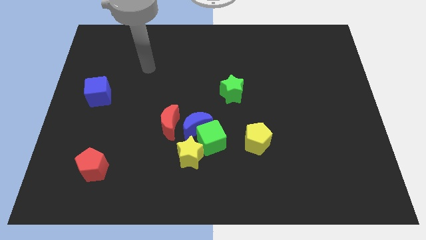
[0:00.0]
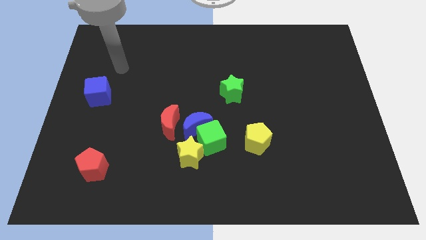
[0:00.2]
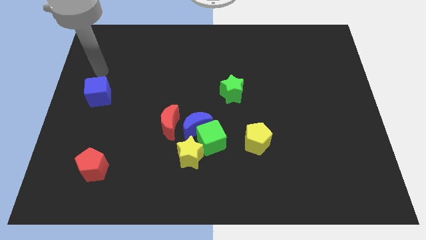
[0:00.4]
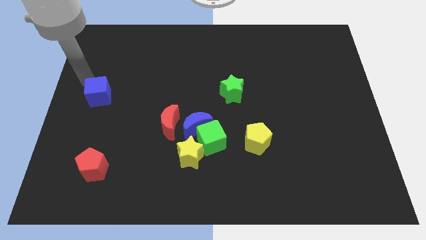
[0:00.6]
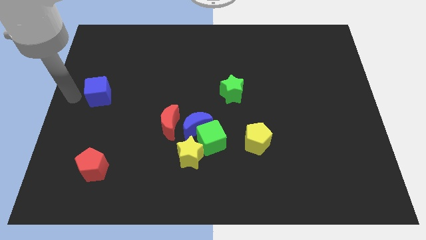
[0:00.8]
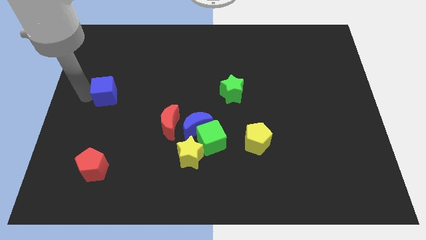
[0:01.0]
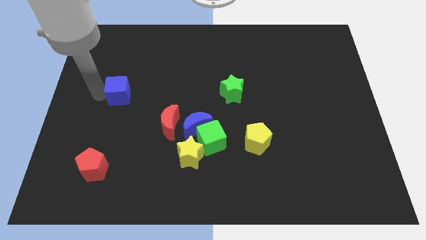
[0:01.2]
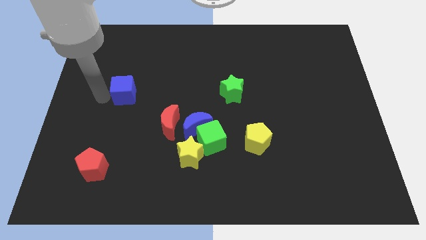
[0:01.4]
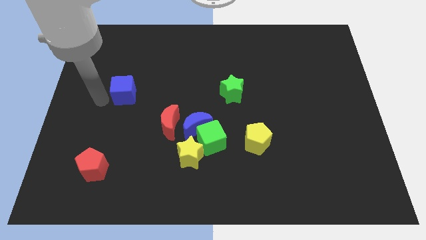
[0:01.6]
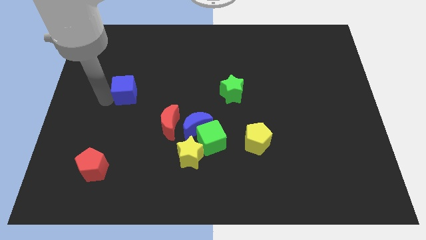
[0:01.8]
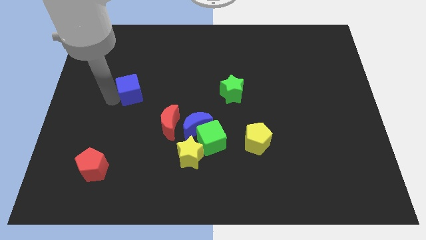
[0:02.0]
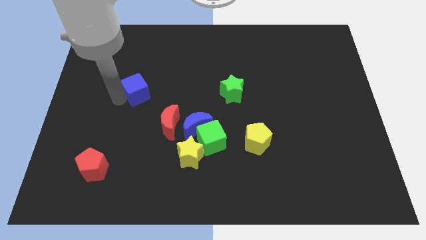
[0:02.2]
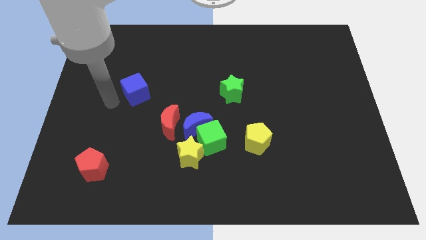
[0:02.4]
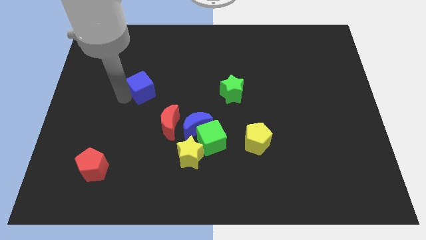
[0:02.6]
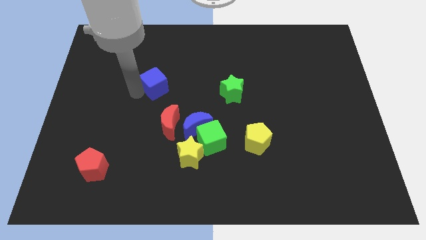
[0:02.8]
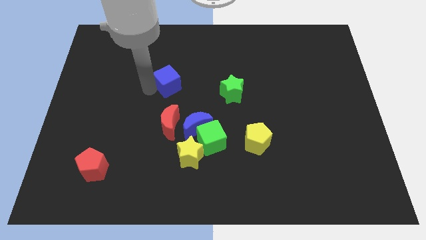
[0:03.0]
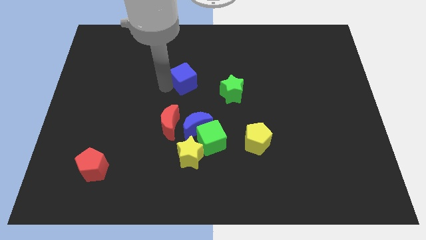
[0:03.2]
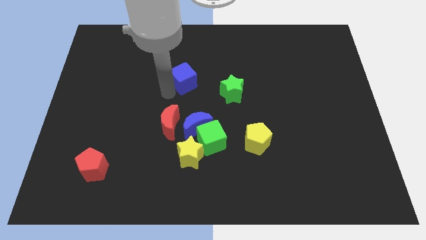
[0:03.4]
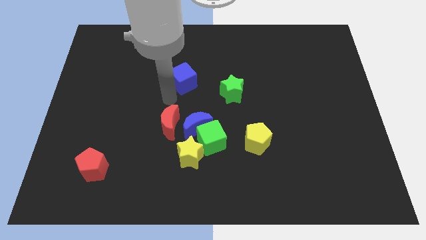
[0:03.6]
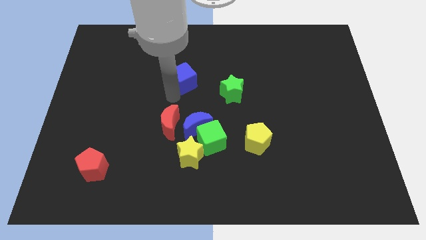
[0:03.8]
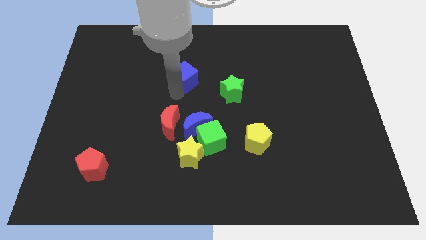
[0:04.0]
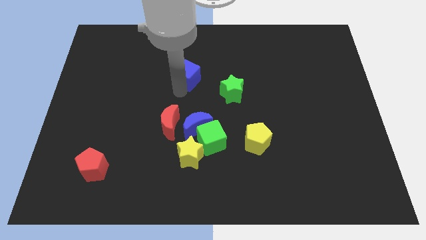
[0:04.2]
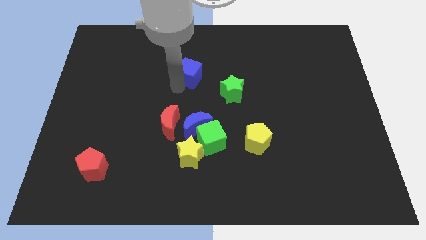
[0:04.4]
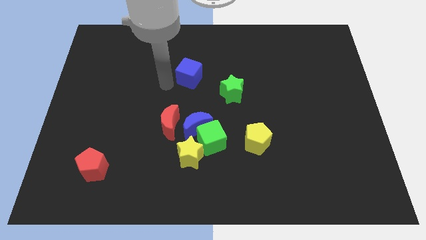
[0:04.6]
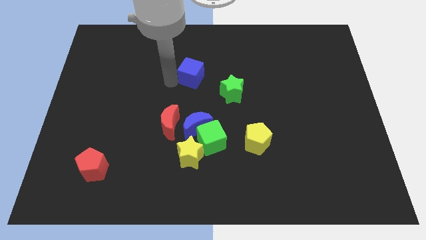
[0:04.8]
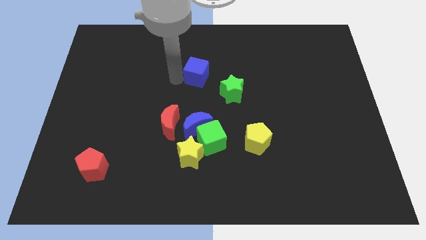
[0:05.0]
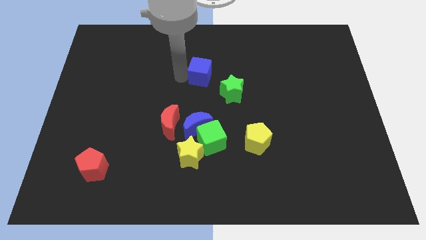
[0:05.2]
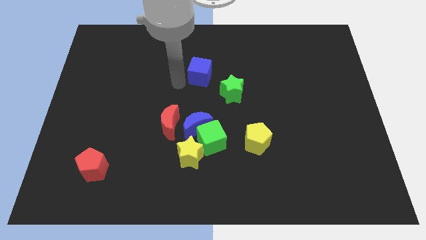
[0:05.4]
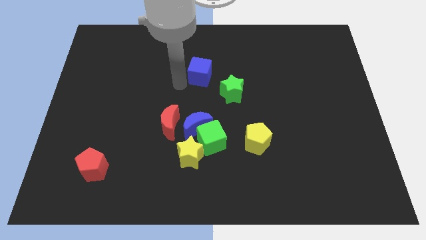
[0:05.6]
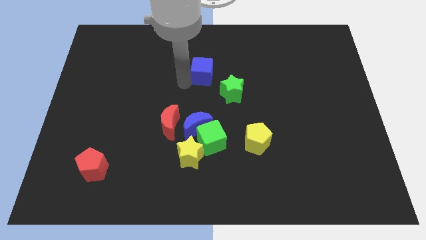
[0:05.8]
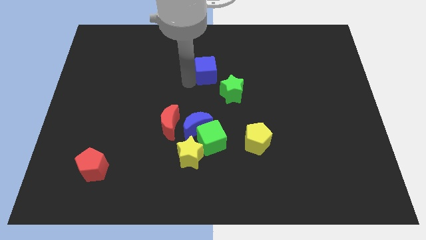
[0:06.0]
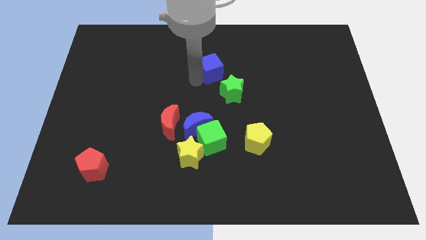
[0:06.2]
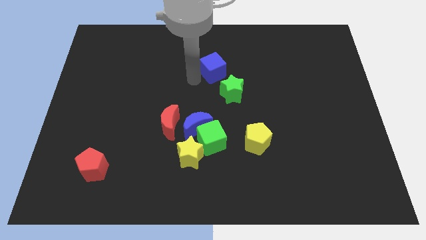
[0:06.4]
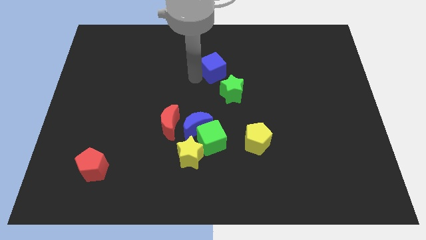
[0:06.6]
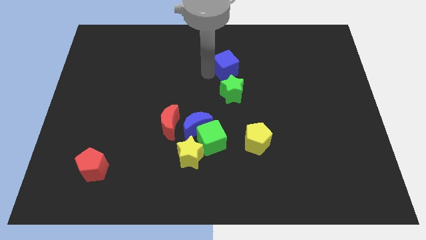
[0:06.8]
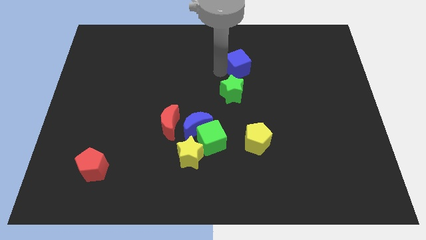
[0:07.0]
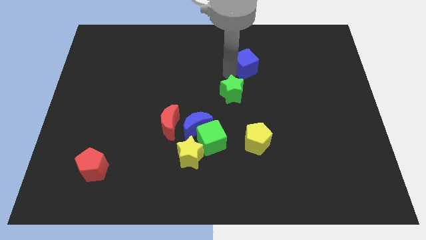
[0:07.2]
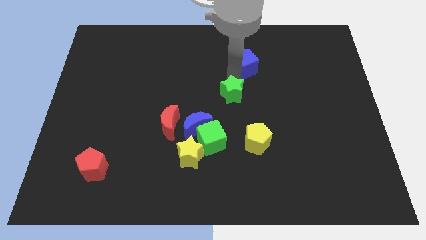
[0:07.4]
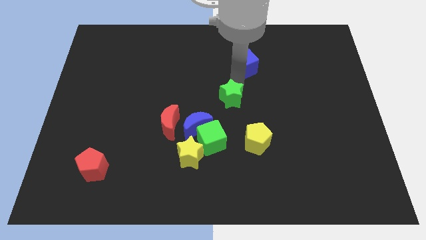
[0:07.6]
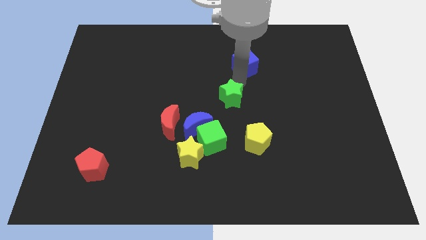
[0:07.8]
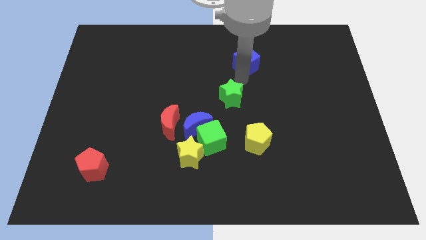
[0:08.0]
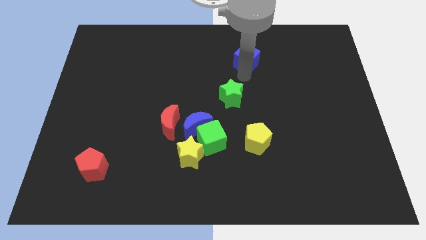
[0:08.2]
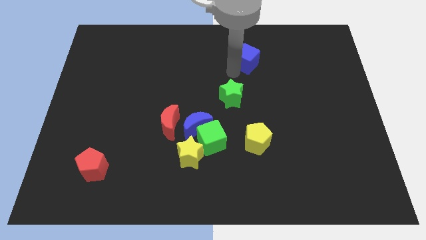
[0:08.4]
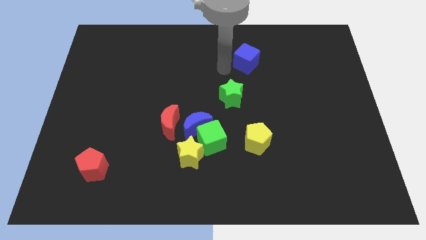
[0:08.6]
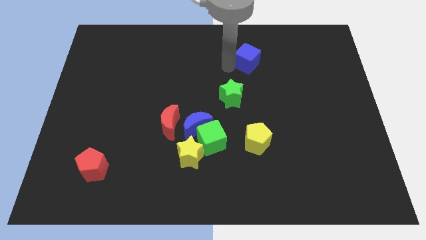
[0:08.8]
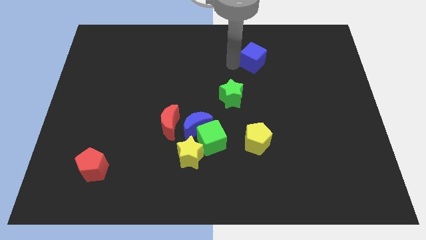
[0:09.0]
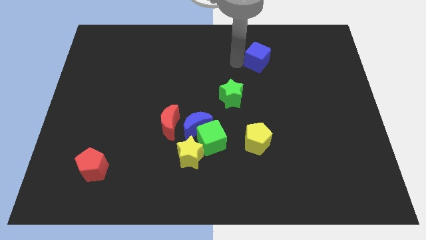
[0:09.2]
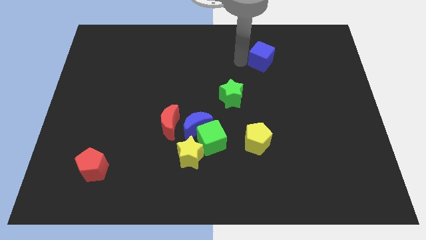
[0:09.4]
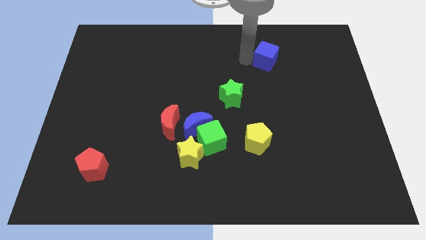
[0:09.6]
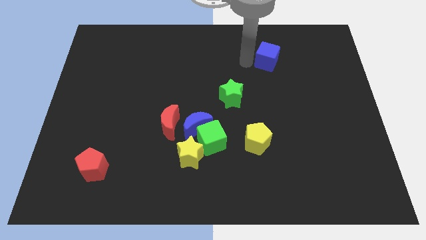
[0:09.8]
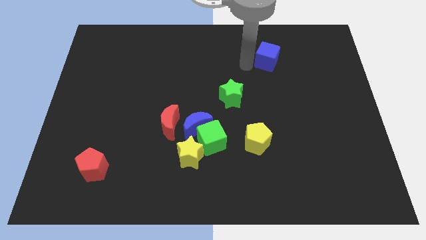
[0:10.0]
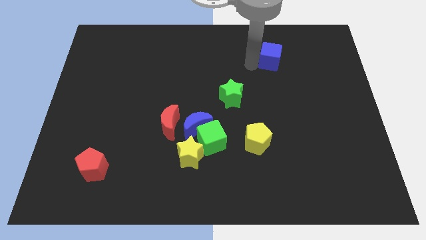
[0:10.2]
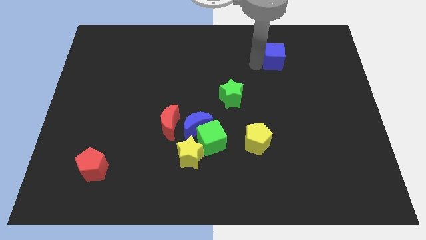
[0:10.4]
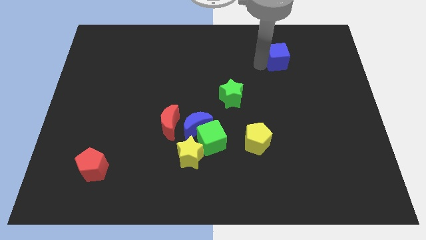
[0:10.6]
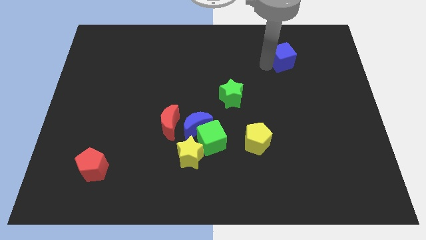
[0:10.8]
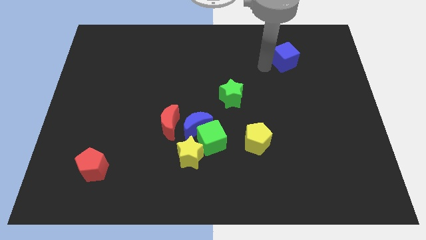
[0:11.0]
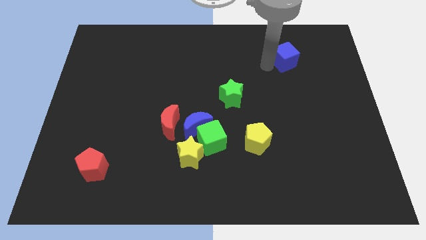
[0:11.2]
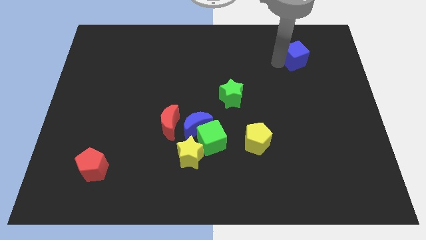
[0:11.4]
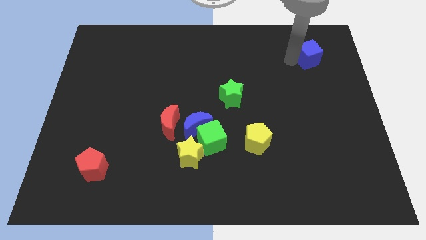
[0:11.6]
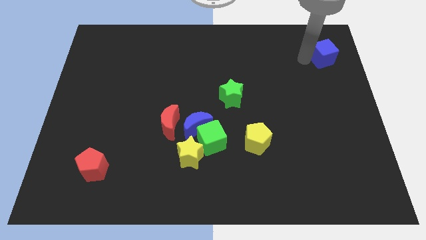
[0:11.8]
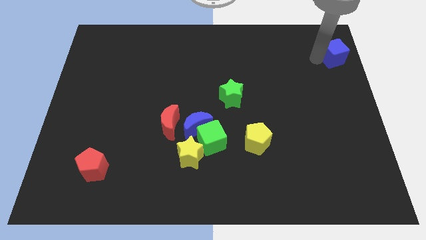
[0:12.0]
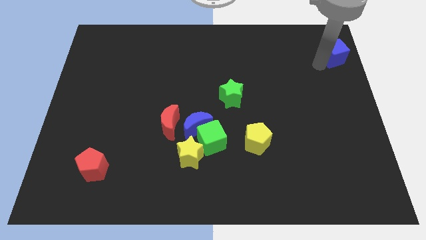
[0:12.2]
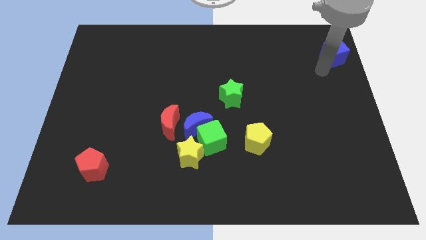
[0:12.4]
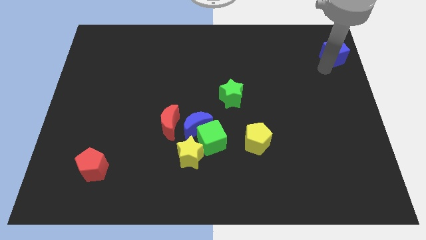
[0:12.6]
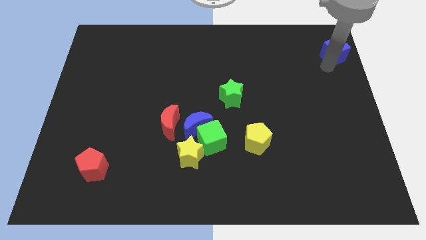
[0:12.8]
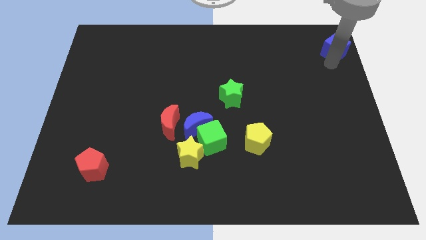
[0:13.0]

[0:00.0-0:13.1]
slide the blue cube to the top right corner
